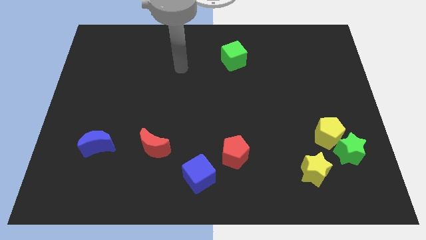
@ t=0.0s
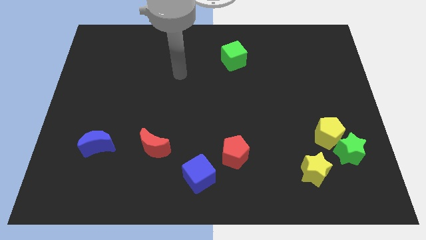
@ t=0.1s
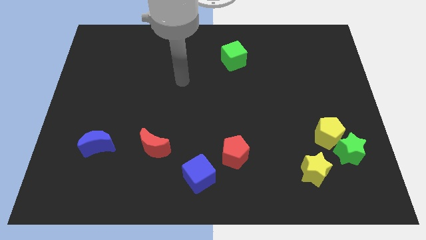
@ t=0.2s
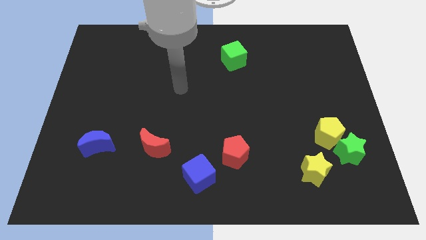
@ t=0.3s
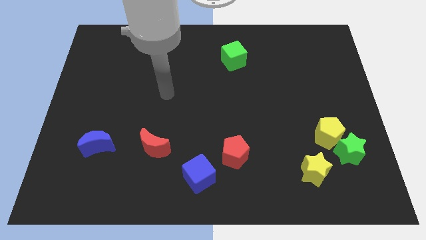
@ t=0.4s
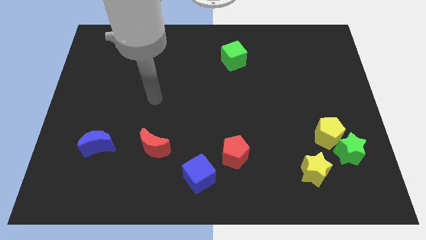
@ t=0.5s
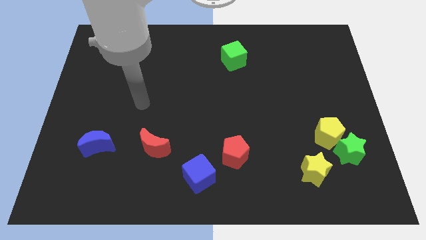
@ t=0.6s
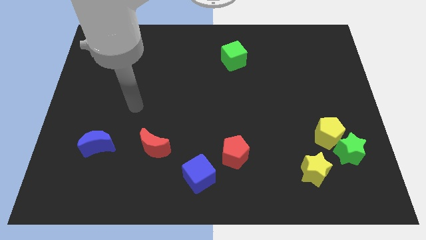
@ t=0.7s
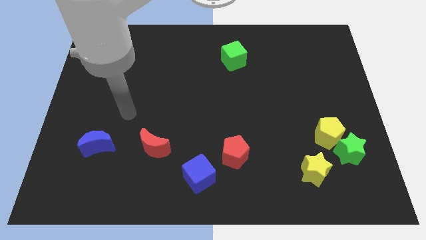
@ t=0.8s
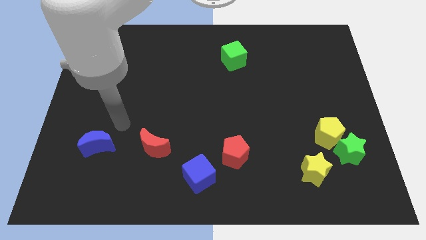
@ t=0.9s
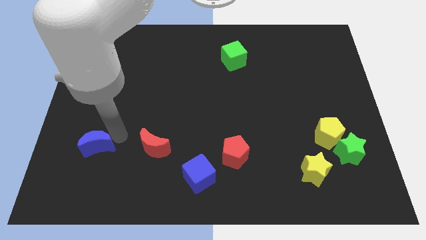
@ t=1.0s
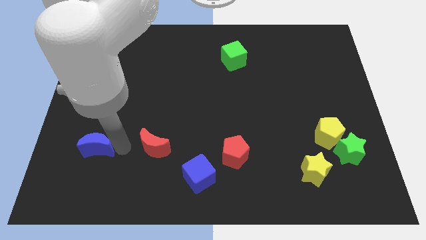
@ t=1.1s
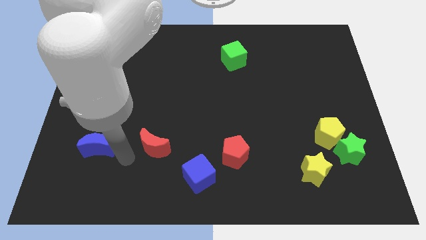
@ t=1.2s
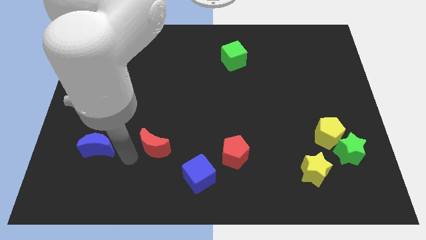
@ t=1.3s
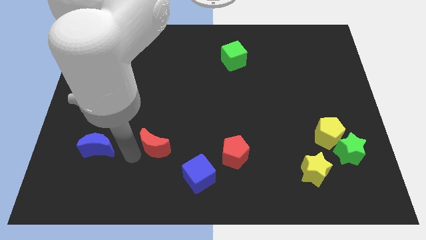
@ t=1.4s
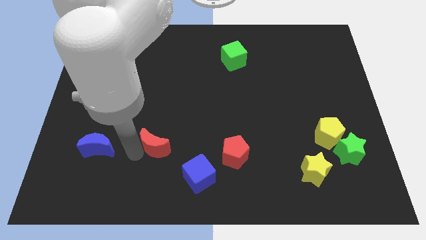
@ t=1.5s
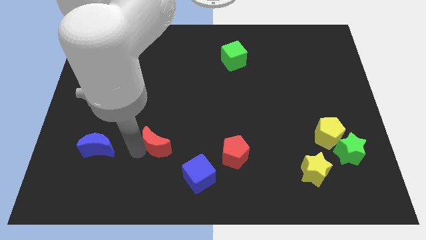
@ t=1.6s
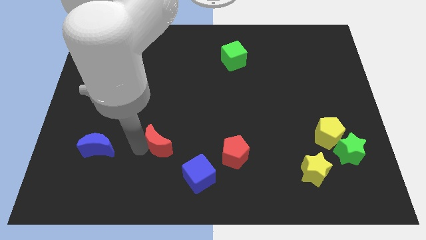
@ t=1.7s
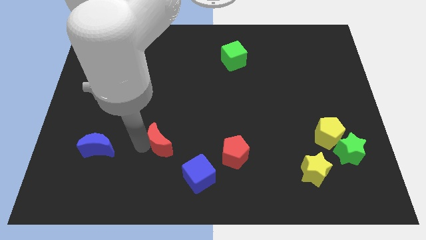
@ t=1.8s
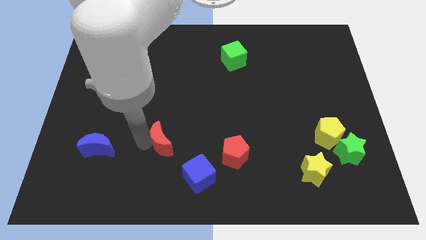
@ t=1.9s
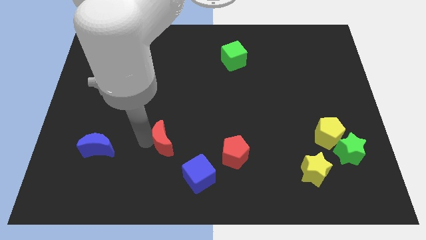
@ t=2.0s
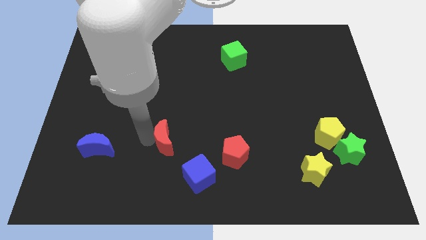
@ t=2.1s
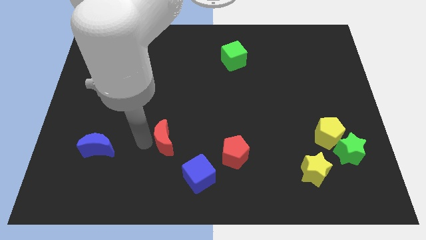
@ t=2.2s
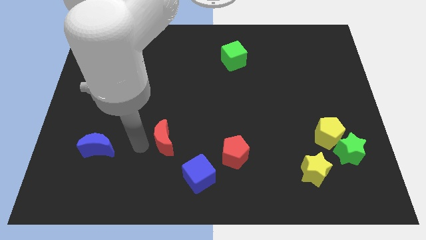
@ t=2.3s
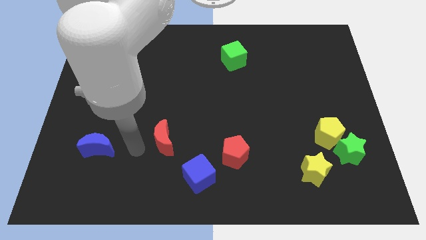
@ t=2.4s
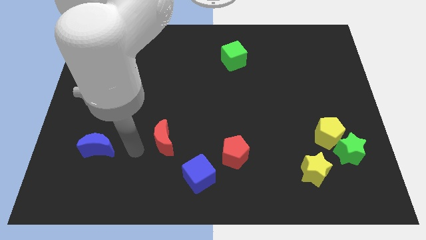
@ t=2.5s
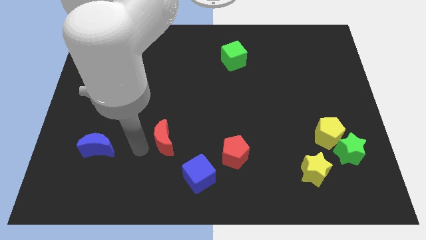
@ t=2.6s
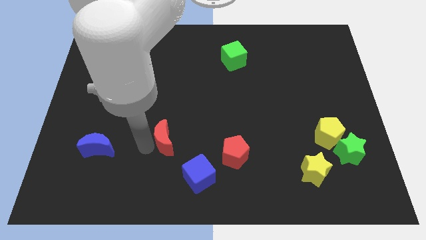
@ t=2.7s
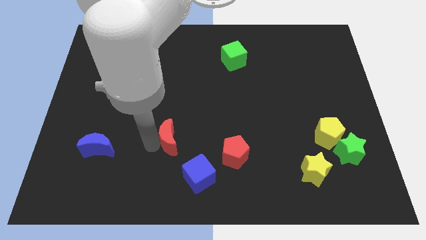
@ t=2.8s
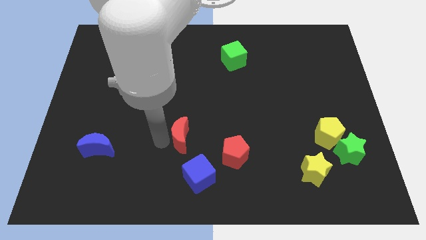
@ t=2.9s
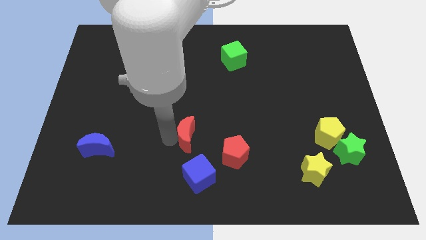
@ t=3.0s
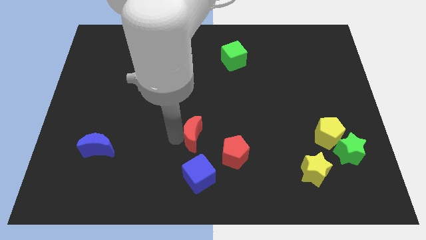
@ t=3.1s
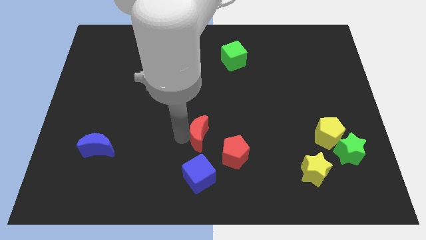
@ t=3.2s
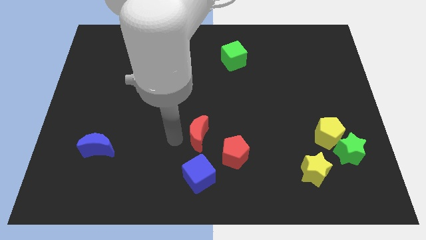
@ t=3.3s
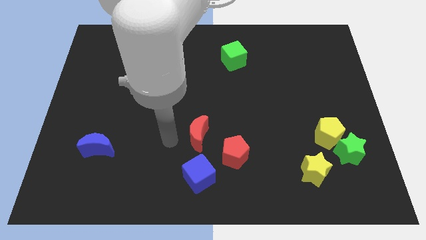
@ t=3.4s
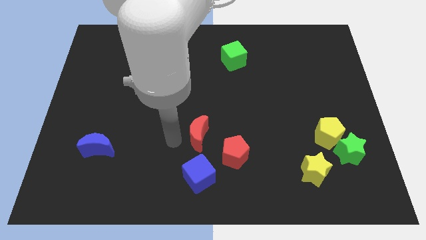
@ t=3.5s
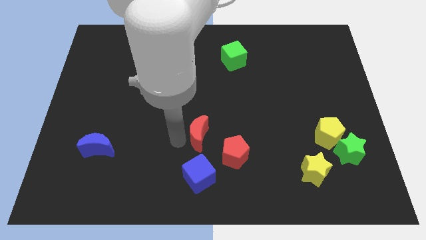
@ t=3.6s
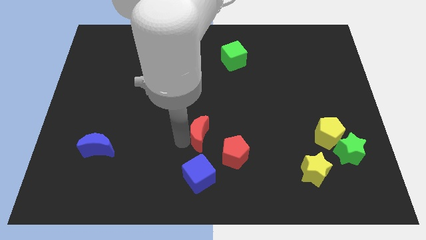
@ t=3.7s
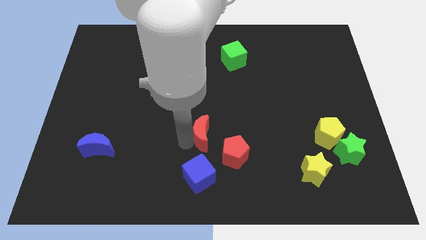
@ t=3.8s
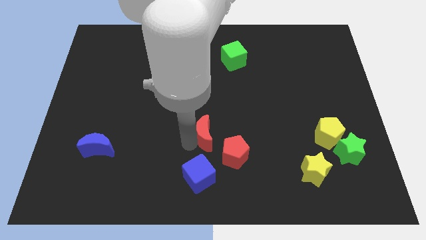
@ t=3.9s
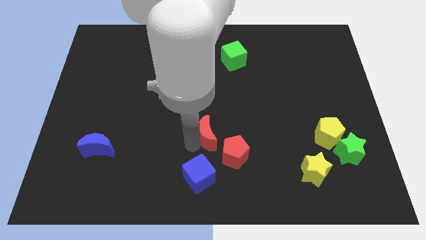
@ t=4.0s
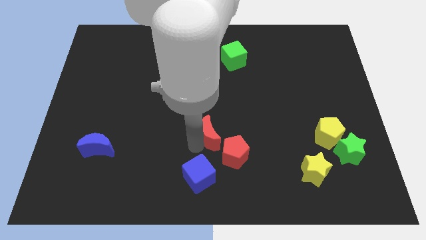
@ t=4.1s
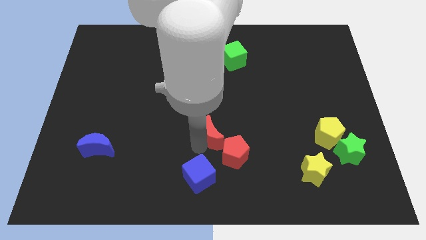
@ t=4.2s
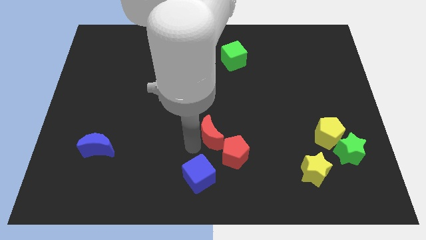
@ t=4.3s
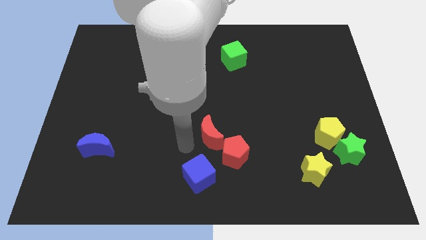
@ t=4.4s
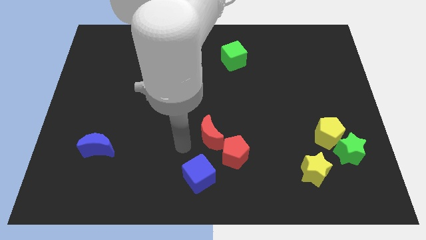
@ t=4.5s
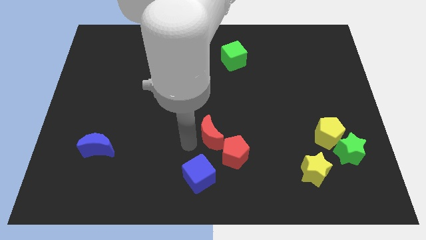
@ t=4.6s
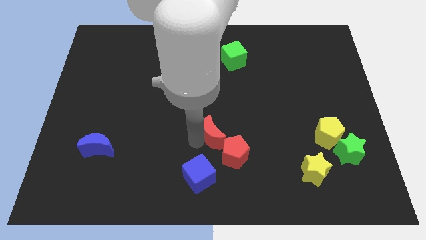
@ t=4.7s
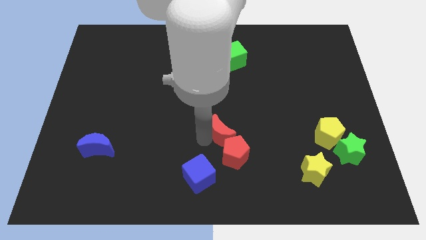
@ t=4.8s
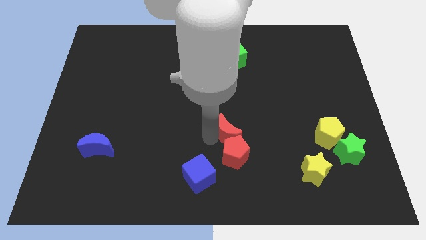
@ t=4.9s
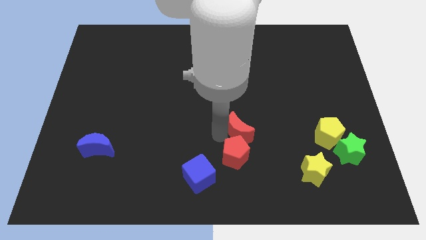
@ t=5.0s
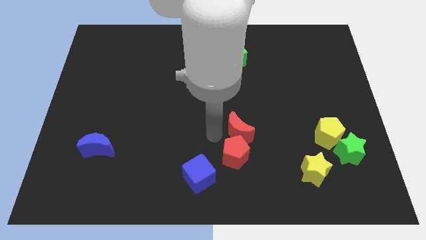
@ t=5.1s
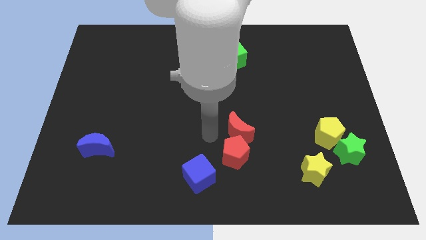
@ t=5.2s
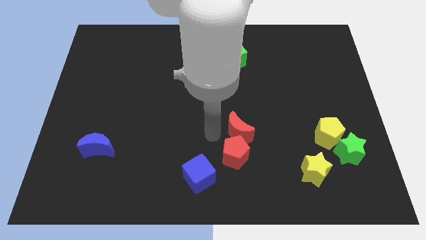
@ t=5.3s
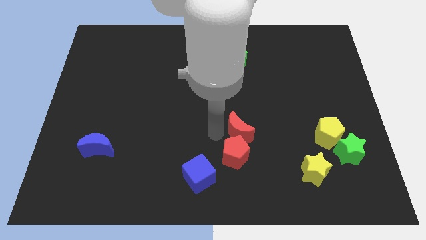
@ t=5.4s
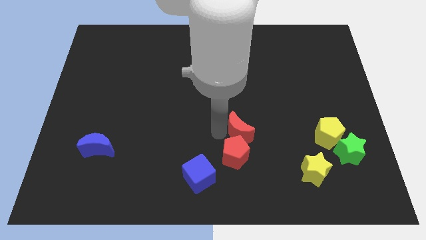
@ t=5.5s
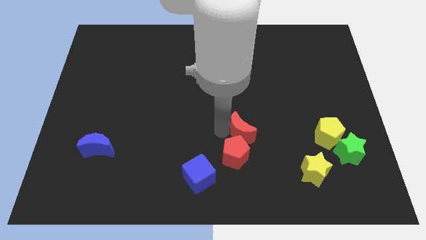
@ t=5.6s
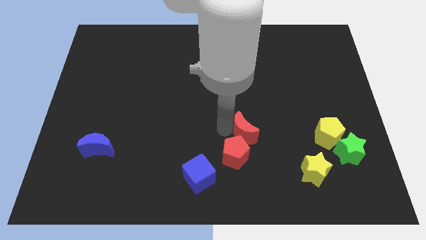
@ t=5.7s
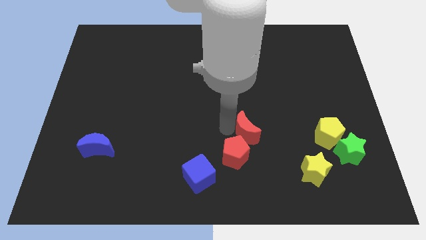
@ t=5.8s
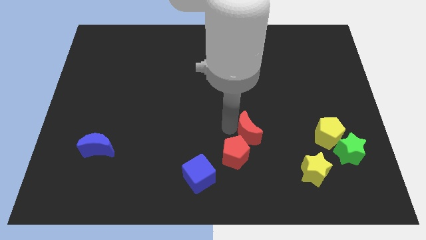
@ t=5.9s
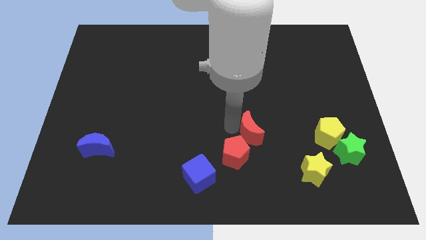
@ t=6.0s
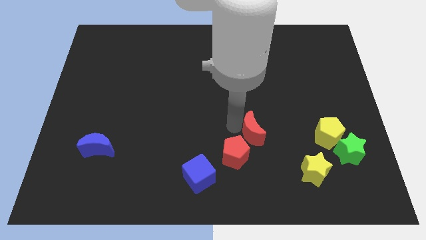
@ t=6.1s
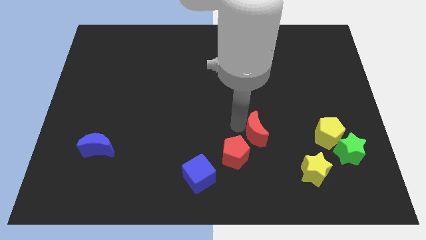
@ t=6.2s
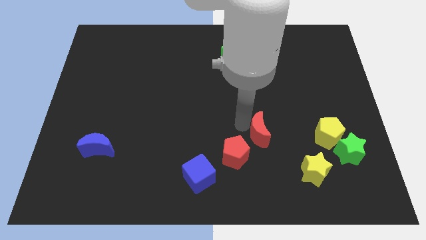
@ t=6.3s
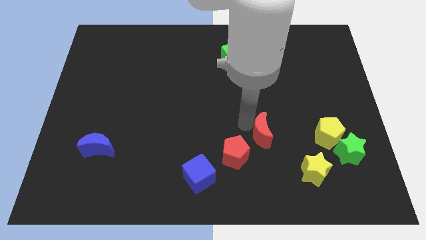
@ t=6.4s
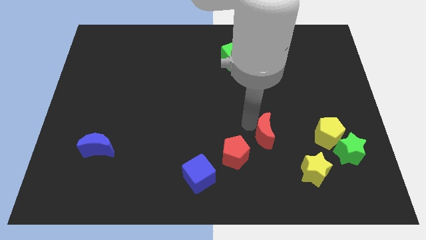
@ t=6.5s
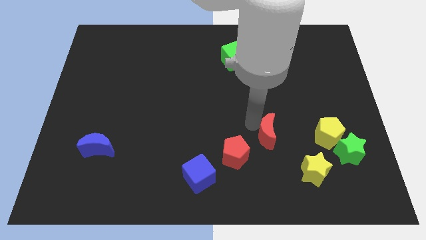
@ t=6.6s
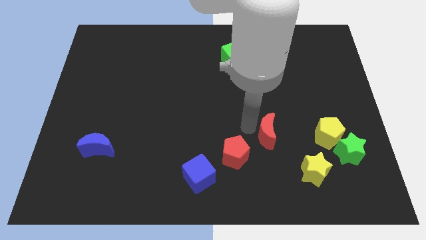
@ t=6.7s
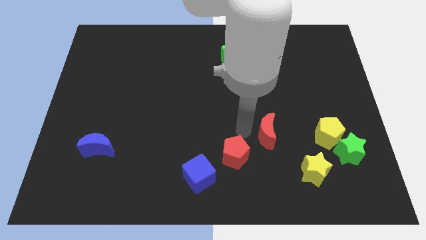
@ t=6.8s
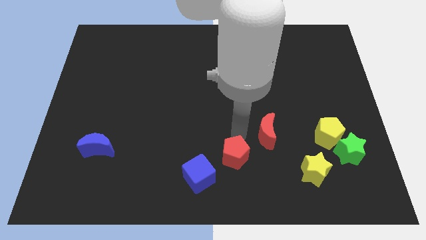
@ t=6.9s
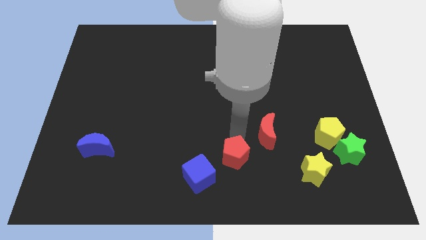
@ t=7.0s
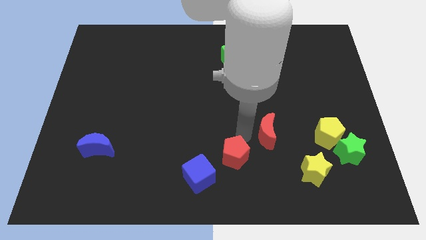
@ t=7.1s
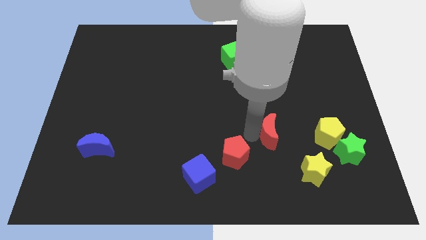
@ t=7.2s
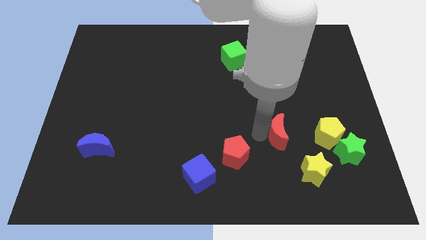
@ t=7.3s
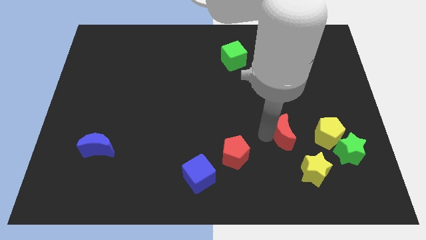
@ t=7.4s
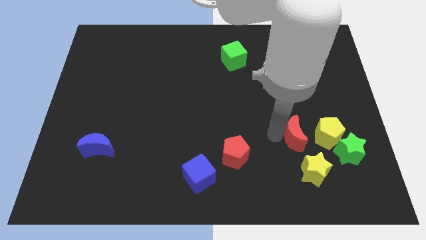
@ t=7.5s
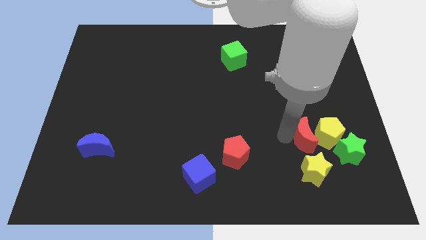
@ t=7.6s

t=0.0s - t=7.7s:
put the red moon close to the yellow pentagon
